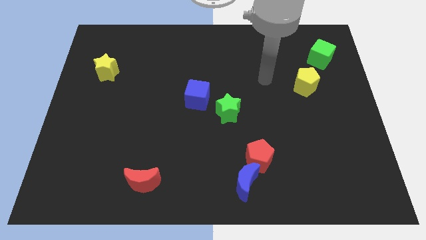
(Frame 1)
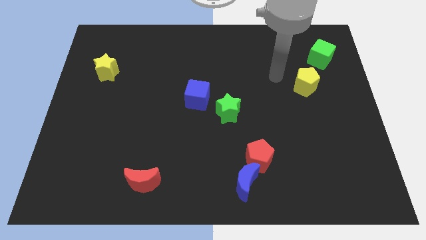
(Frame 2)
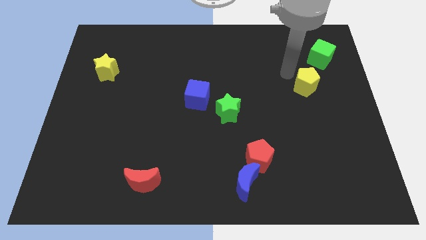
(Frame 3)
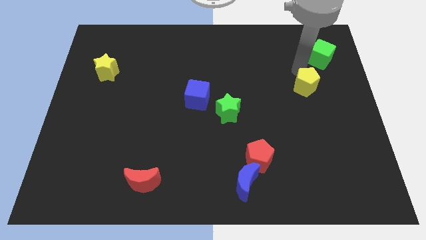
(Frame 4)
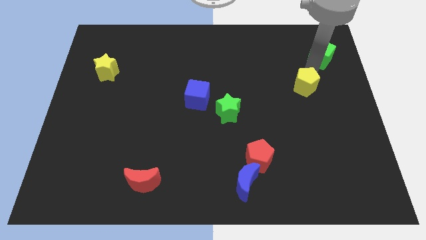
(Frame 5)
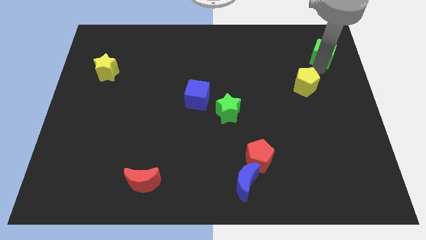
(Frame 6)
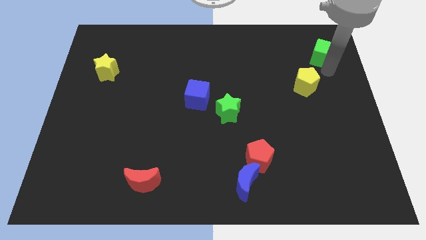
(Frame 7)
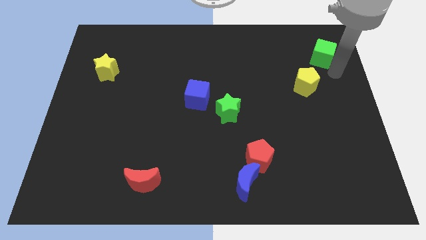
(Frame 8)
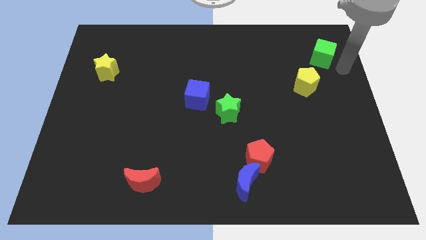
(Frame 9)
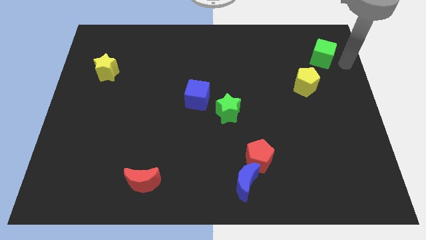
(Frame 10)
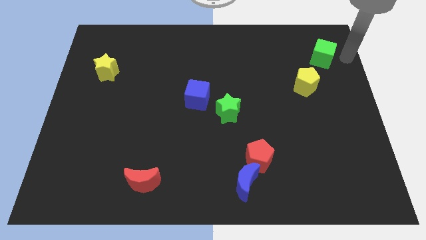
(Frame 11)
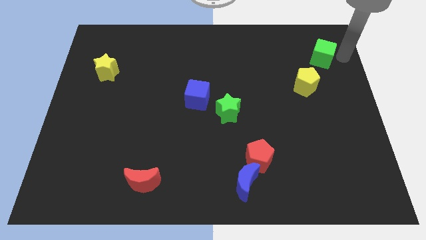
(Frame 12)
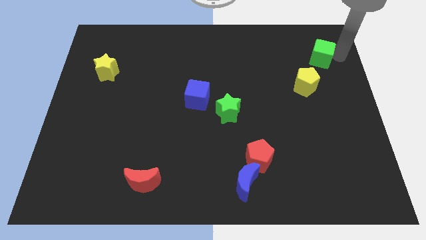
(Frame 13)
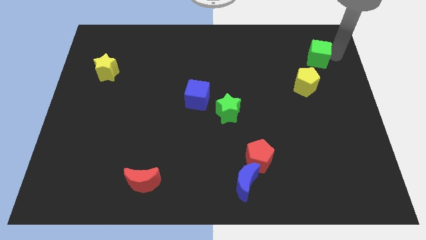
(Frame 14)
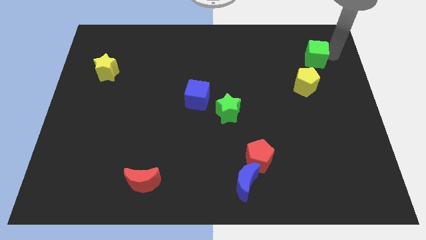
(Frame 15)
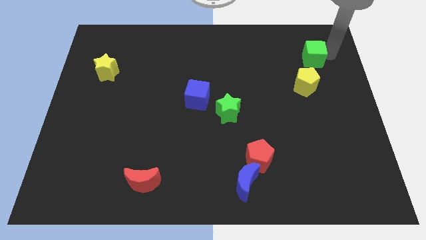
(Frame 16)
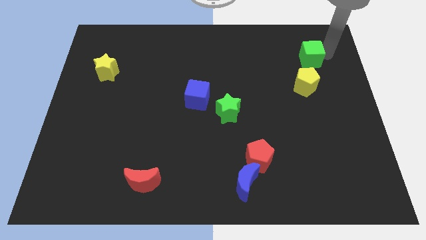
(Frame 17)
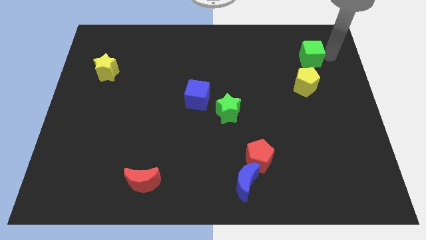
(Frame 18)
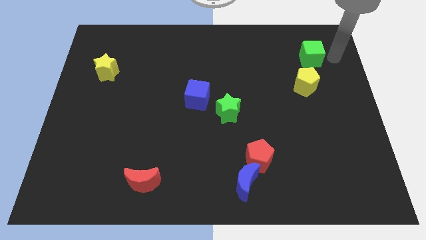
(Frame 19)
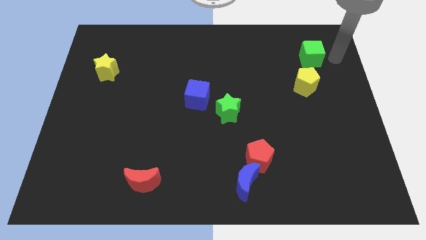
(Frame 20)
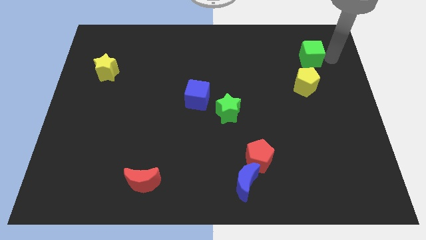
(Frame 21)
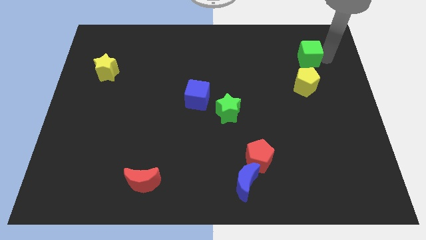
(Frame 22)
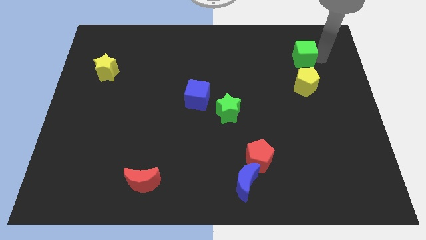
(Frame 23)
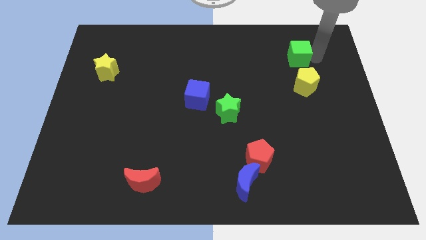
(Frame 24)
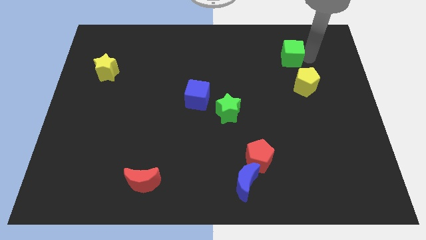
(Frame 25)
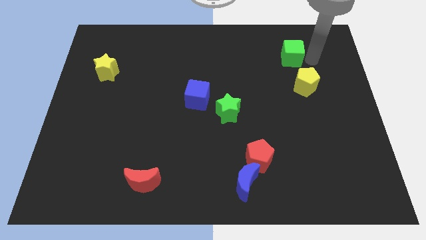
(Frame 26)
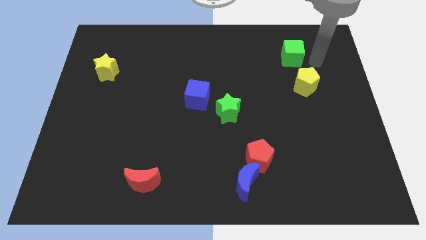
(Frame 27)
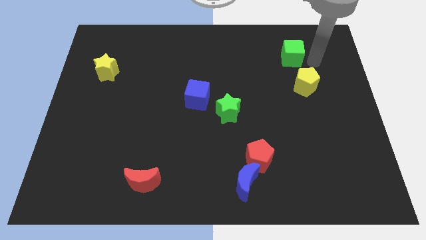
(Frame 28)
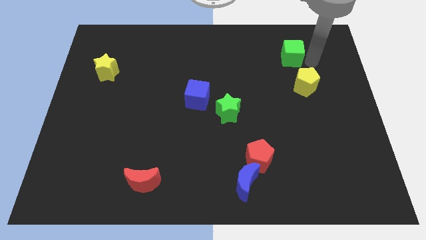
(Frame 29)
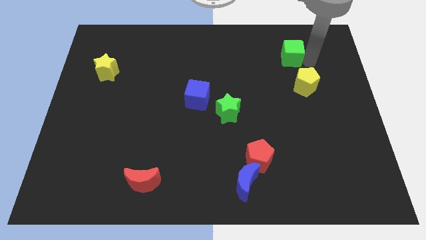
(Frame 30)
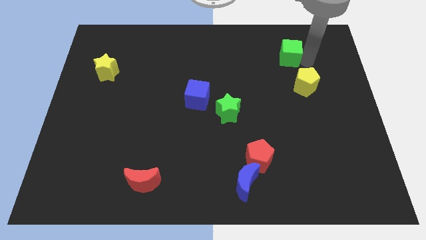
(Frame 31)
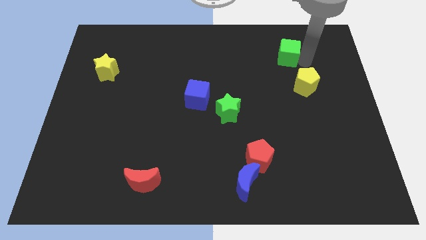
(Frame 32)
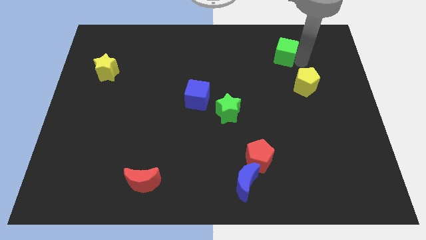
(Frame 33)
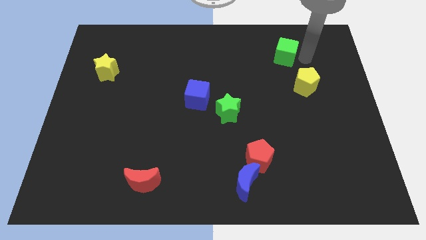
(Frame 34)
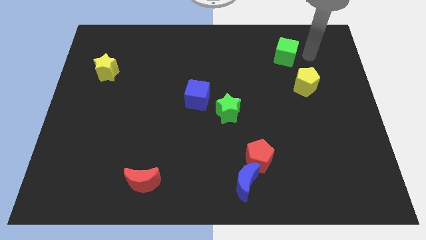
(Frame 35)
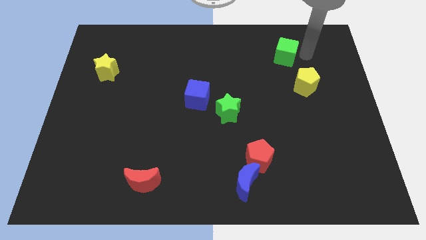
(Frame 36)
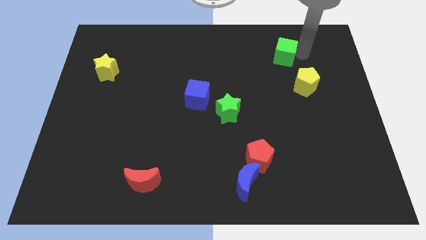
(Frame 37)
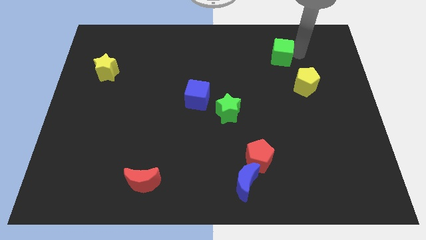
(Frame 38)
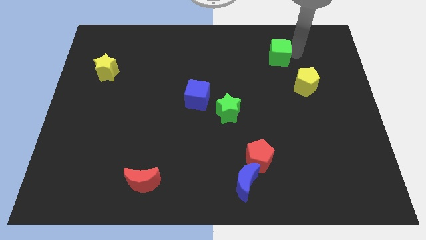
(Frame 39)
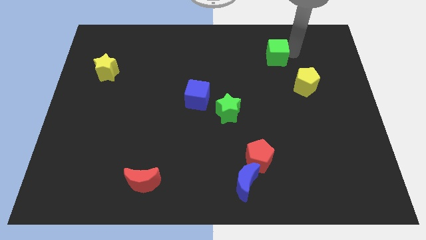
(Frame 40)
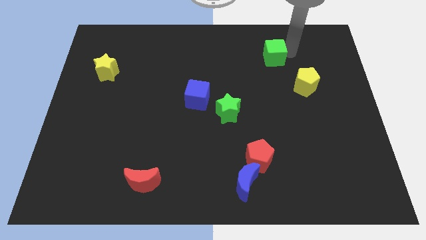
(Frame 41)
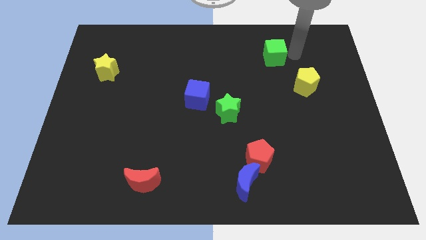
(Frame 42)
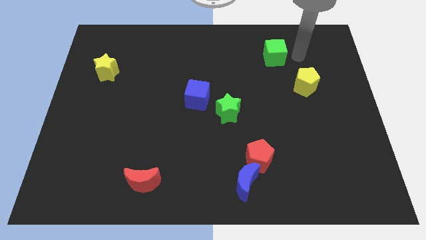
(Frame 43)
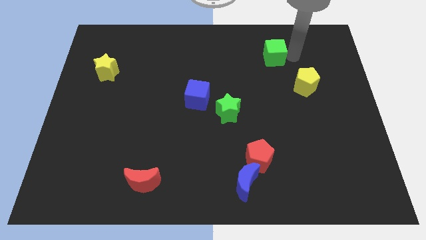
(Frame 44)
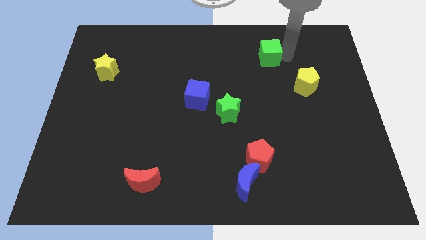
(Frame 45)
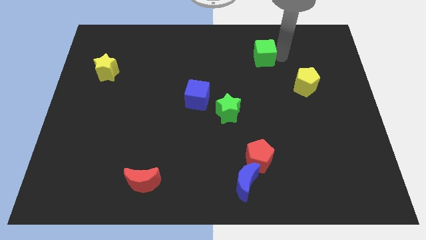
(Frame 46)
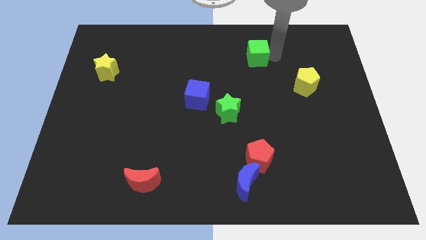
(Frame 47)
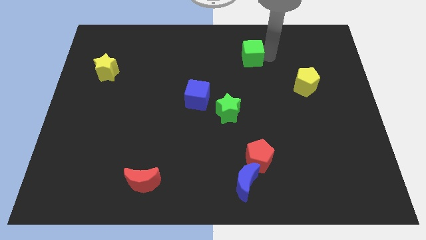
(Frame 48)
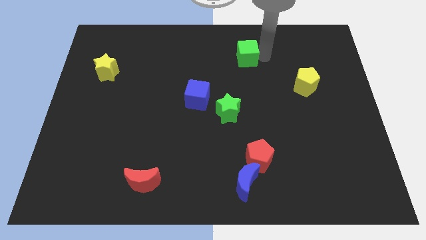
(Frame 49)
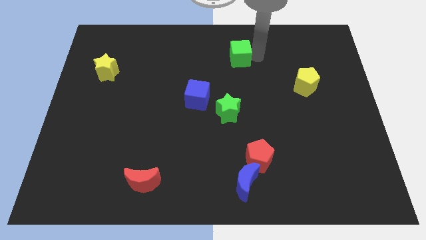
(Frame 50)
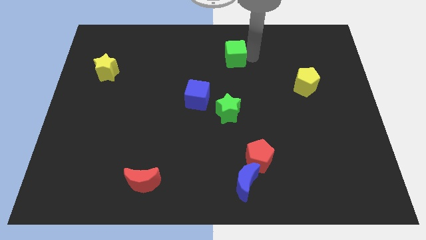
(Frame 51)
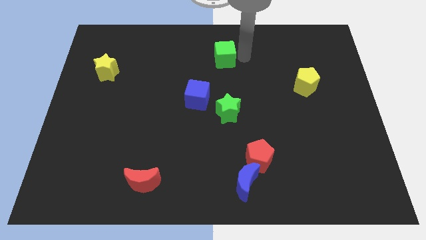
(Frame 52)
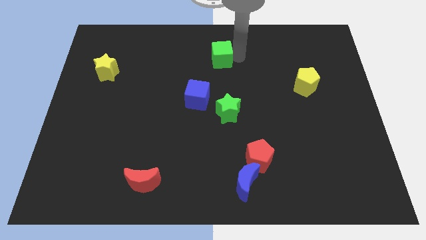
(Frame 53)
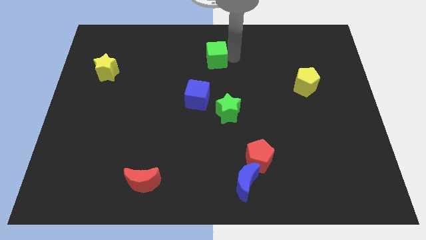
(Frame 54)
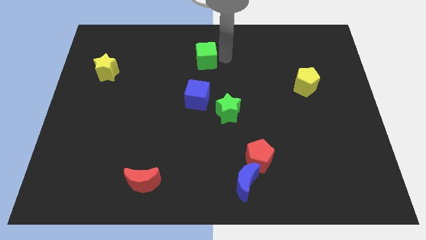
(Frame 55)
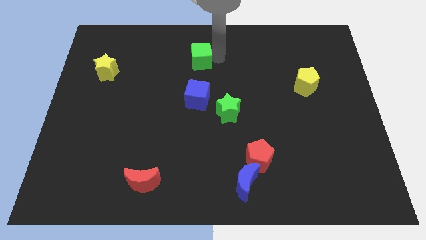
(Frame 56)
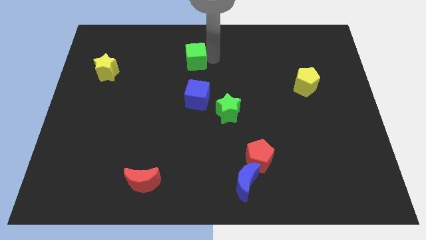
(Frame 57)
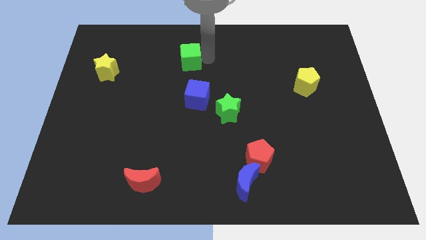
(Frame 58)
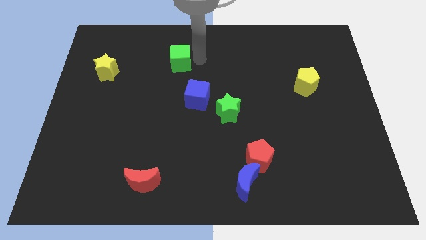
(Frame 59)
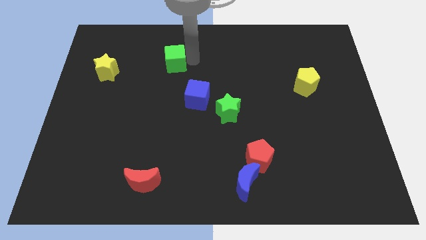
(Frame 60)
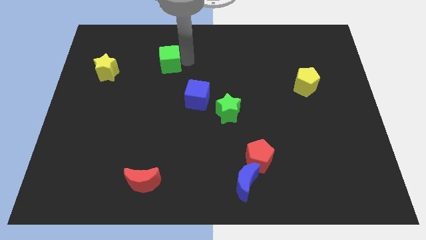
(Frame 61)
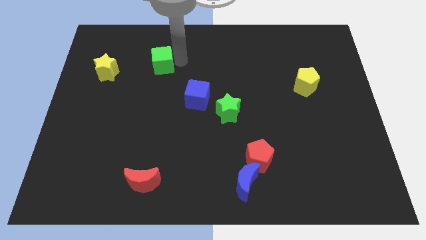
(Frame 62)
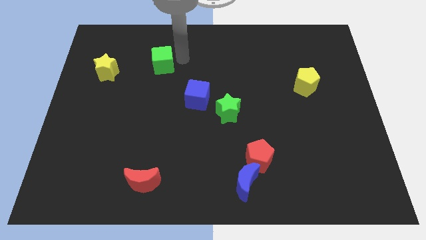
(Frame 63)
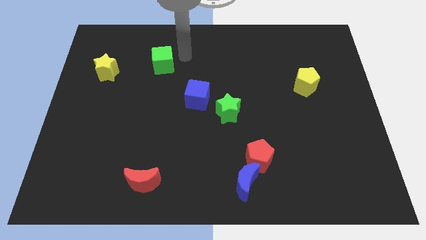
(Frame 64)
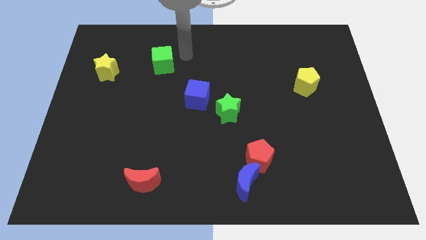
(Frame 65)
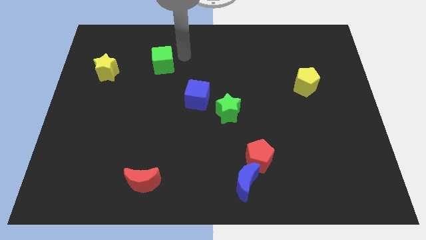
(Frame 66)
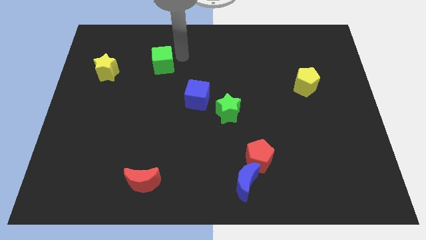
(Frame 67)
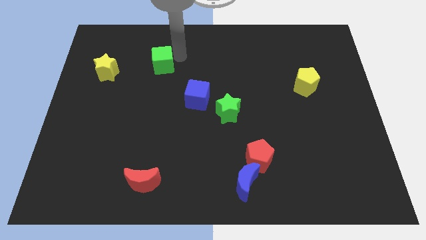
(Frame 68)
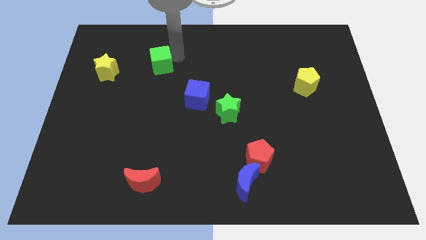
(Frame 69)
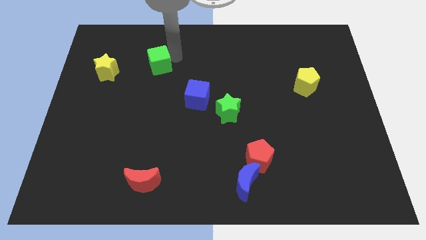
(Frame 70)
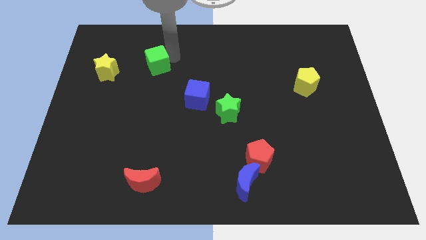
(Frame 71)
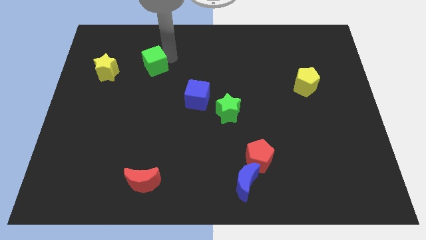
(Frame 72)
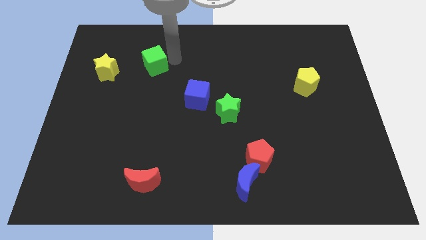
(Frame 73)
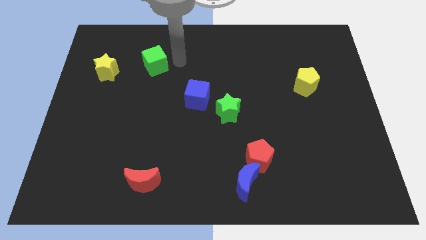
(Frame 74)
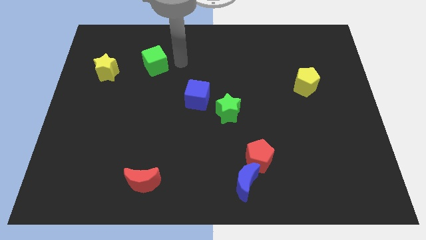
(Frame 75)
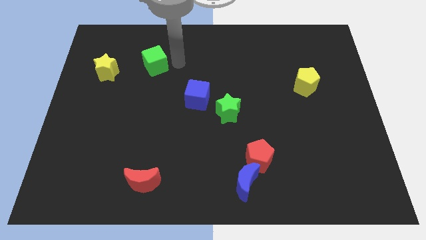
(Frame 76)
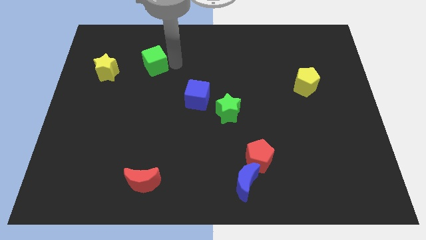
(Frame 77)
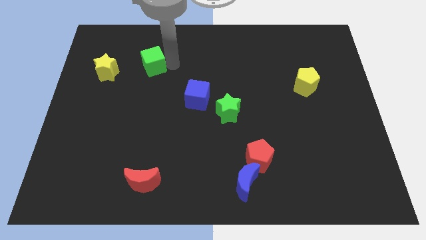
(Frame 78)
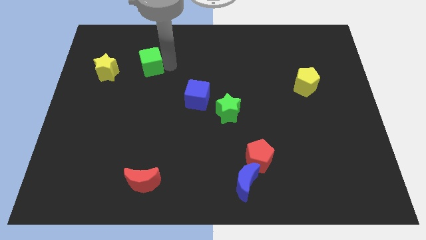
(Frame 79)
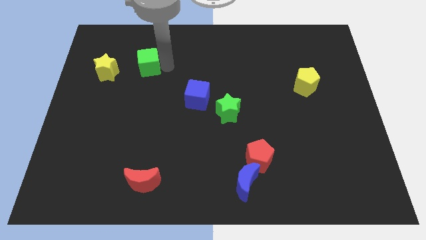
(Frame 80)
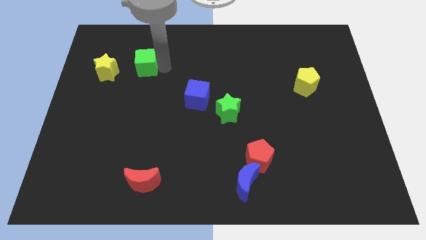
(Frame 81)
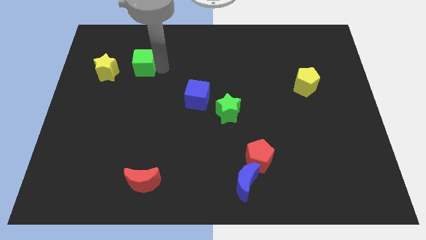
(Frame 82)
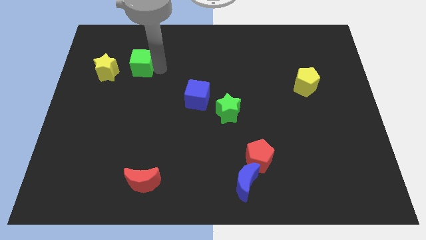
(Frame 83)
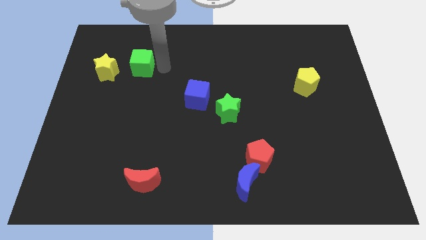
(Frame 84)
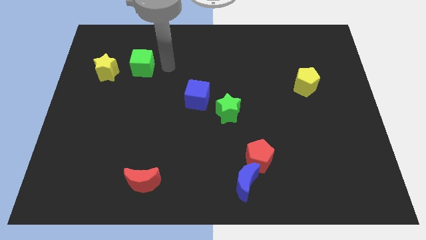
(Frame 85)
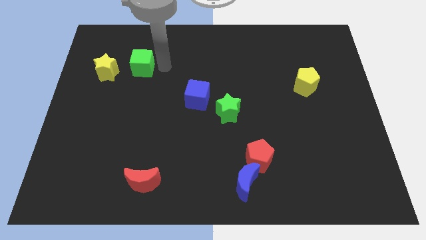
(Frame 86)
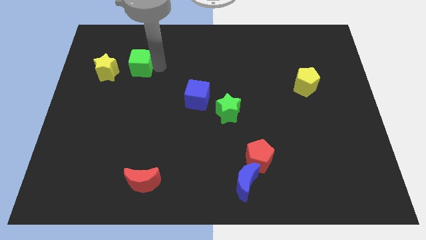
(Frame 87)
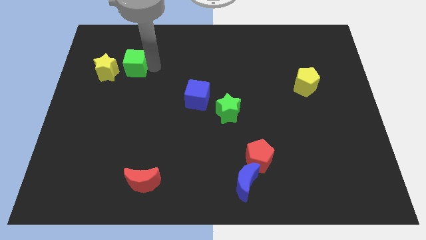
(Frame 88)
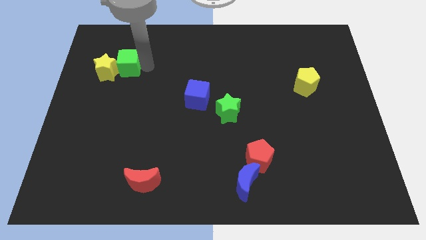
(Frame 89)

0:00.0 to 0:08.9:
move the green cube close to the yellow star
